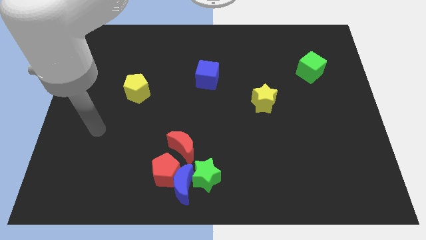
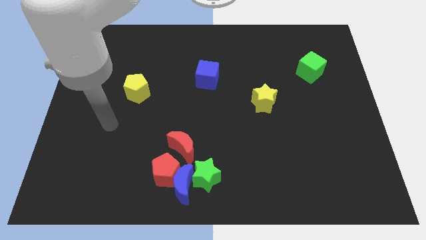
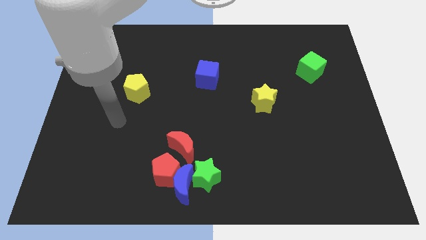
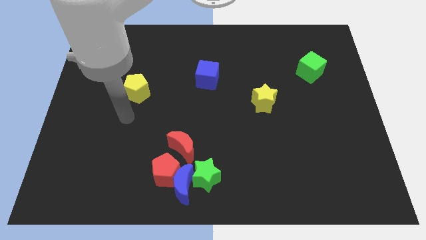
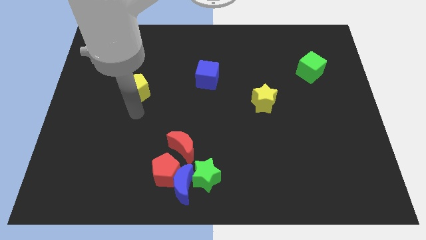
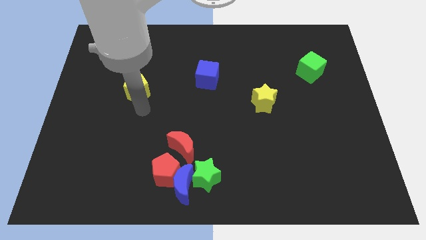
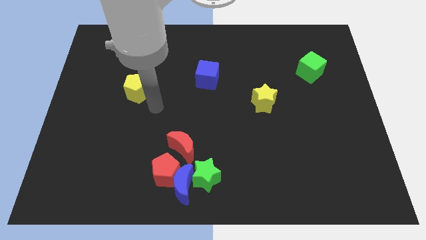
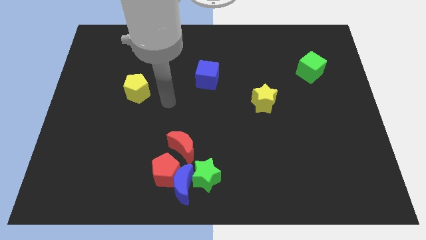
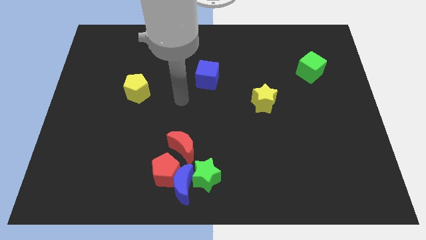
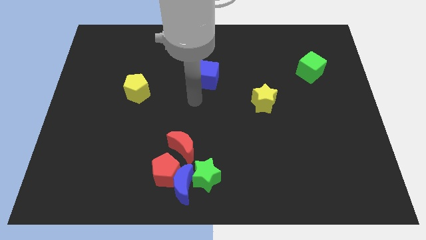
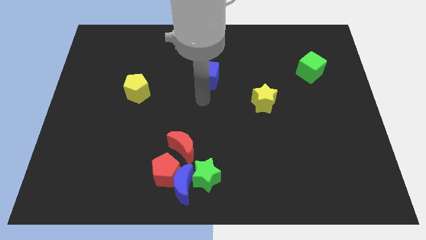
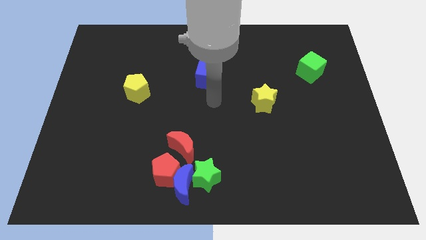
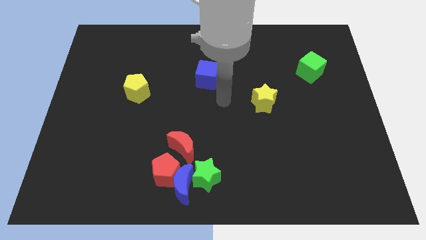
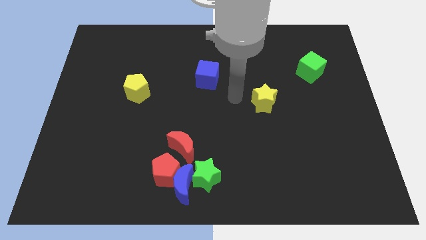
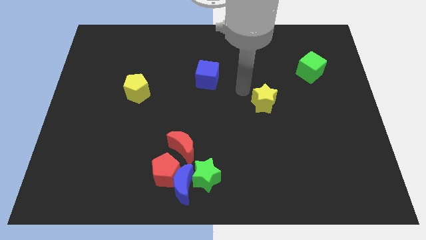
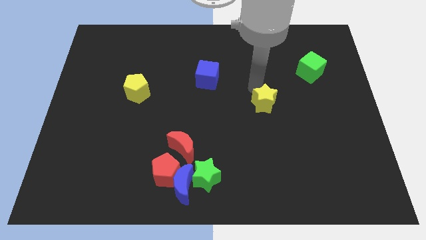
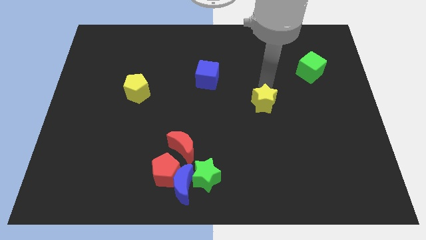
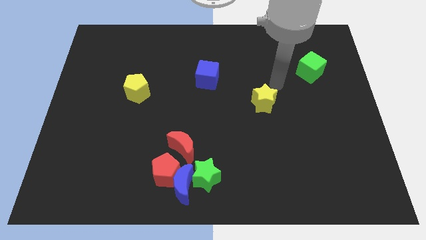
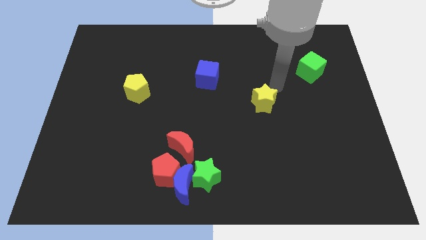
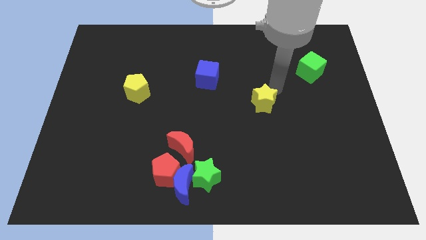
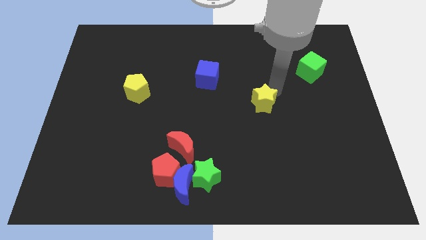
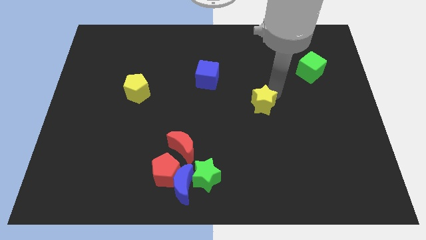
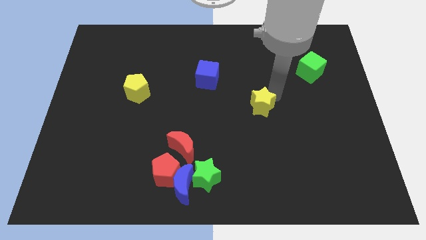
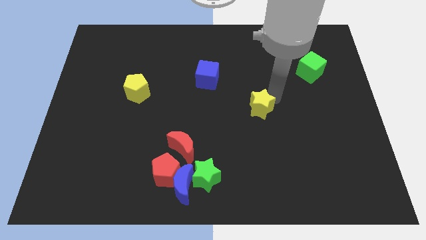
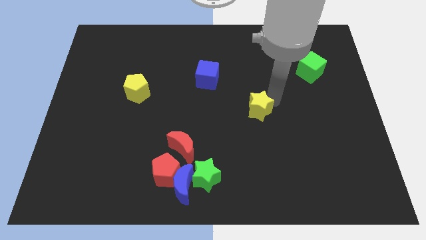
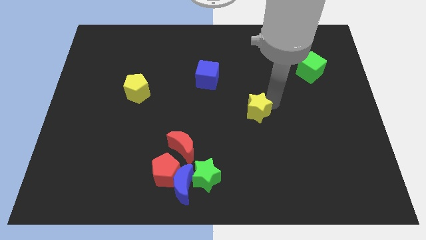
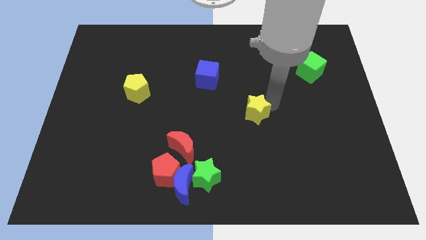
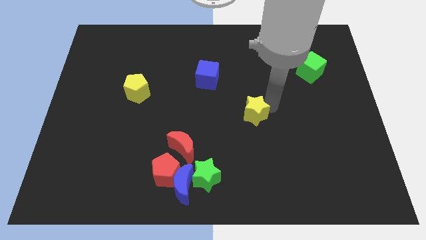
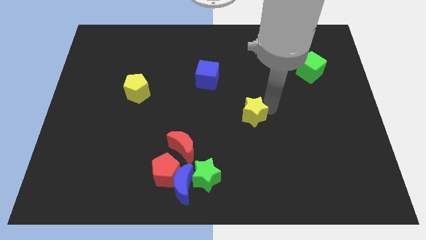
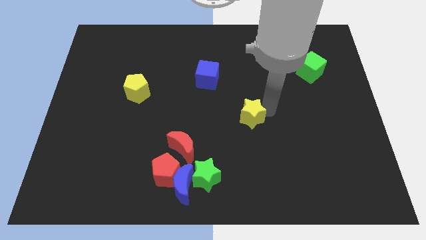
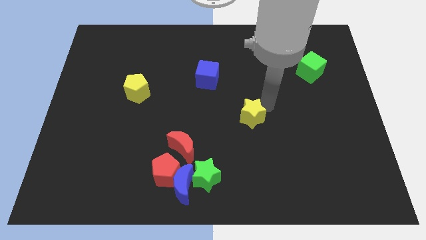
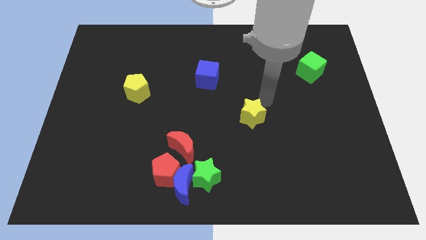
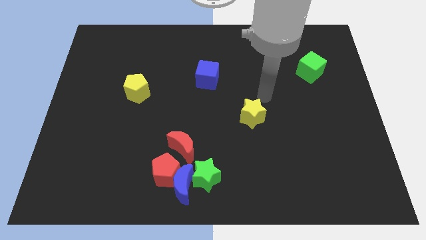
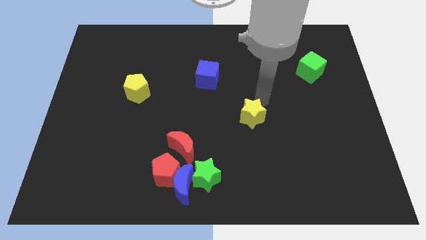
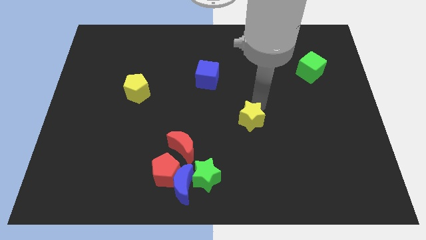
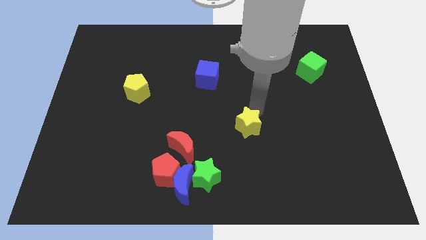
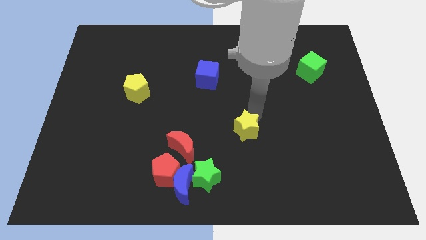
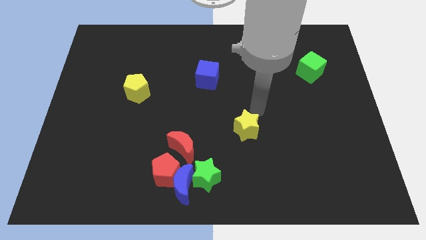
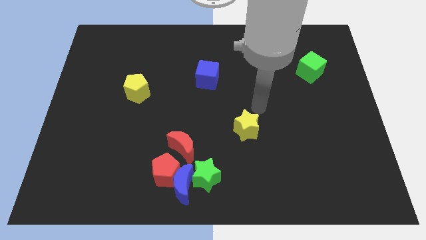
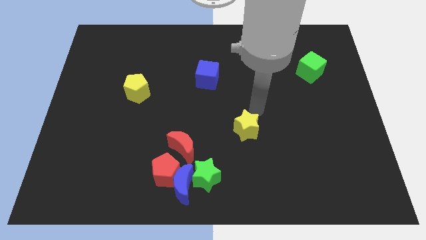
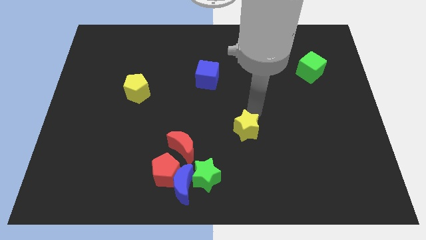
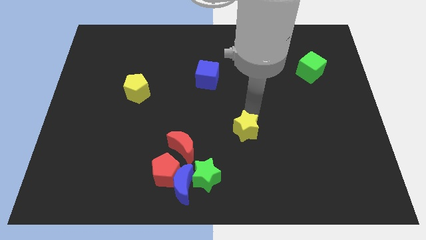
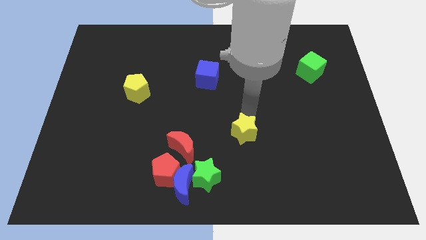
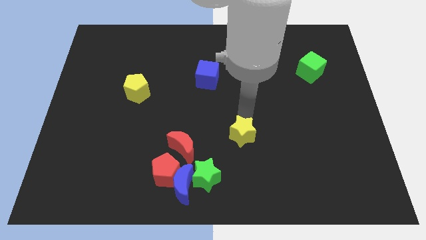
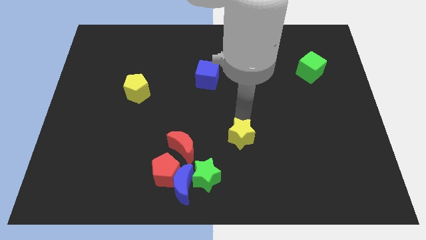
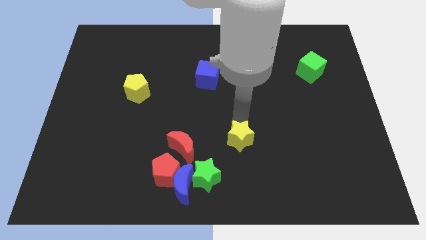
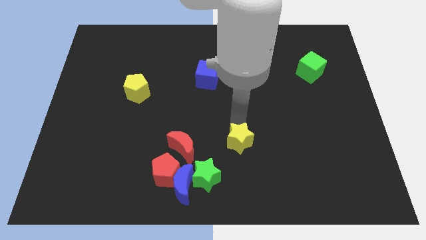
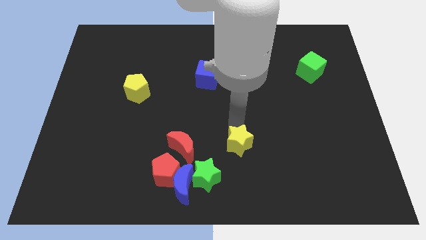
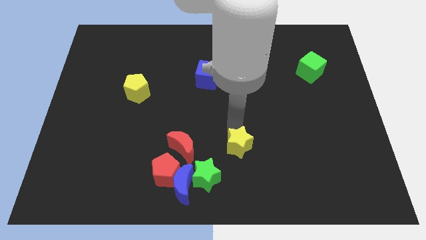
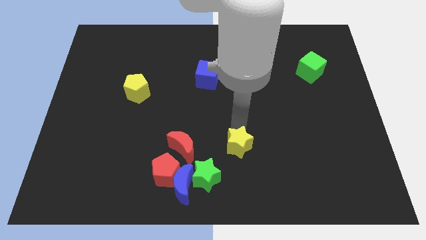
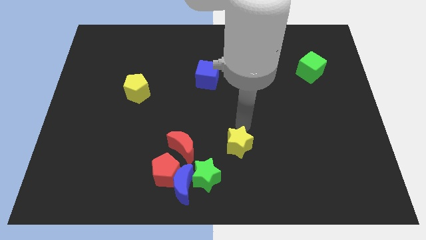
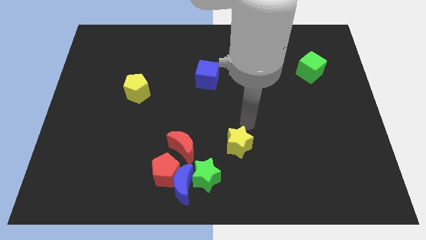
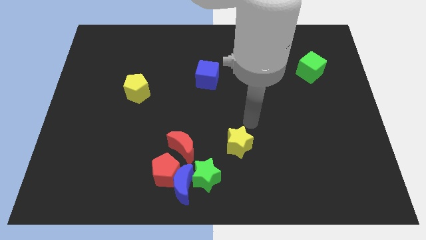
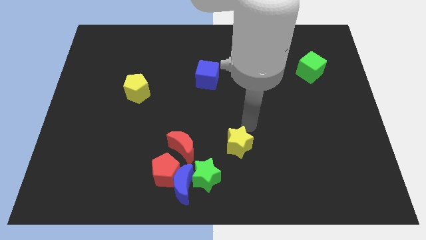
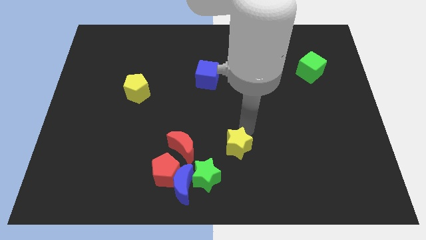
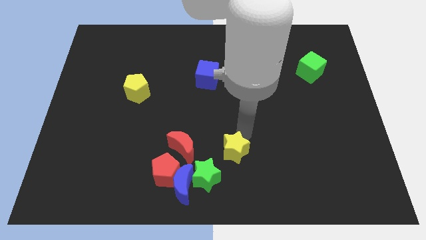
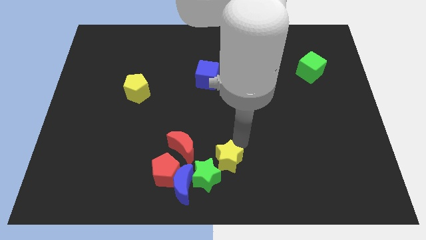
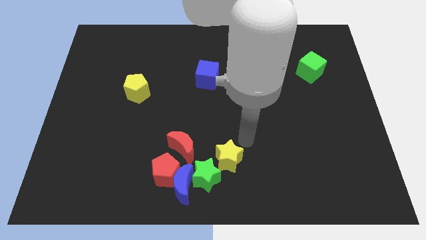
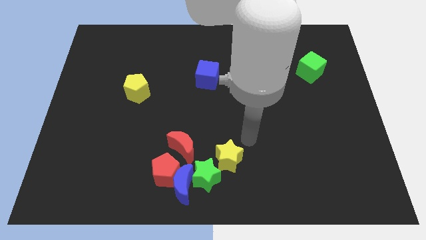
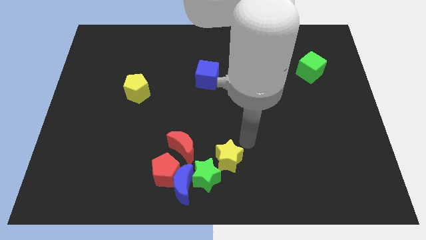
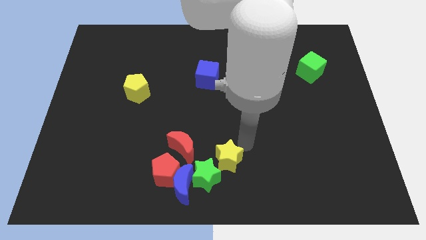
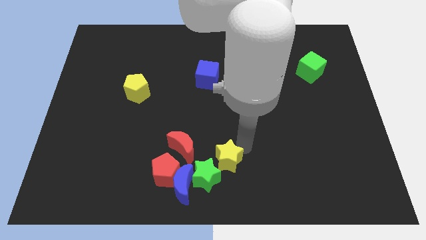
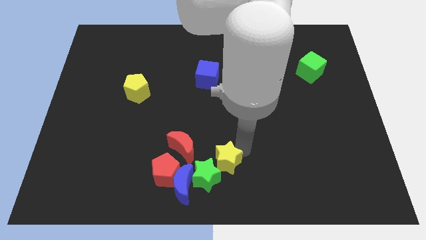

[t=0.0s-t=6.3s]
slide the yellow star to the green star
